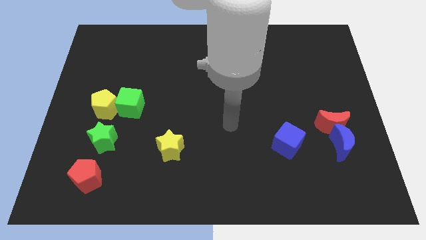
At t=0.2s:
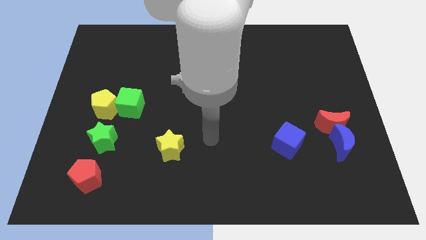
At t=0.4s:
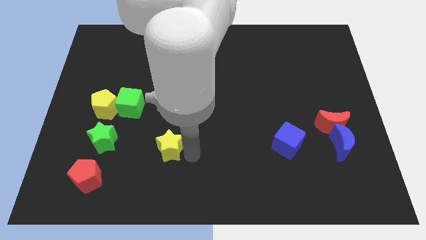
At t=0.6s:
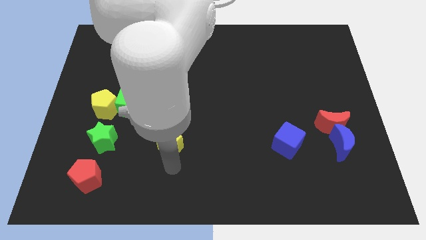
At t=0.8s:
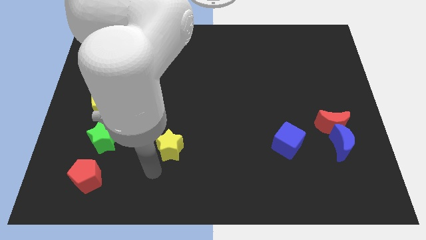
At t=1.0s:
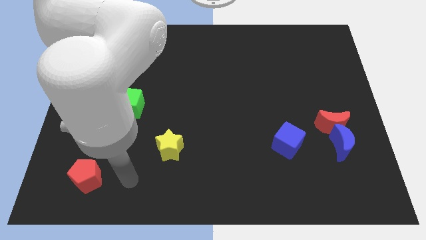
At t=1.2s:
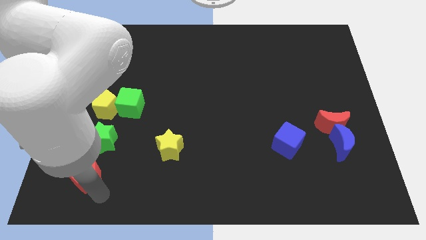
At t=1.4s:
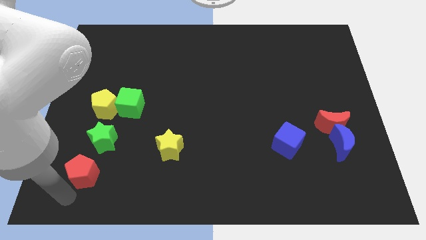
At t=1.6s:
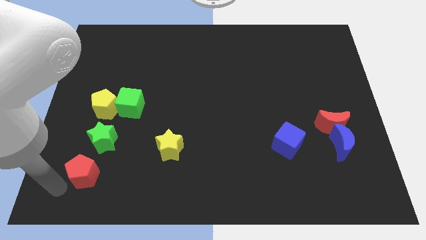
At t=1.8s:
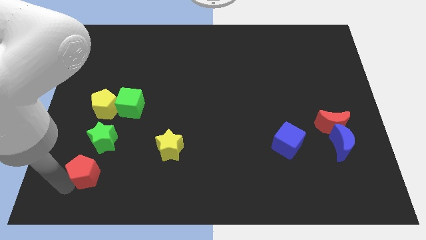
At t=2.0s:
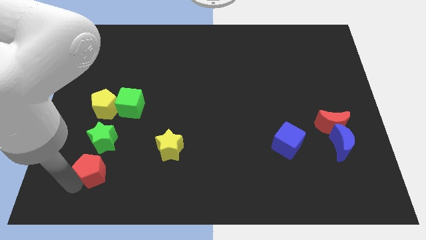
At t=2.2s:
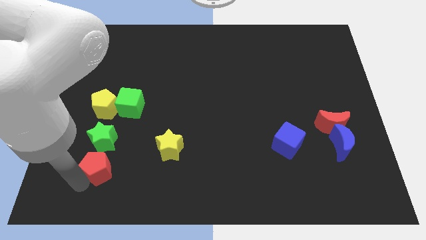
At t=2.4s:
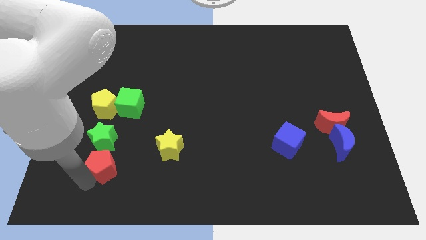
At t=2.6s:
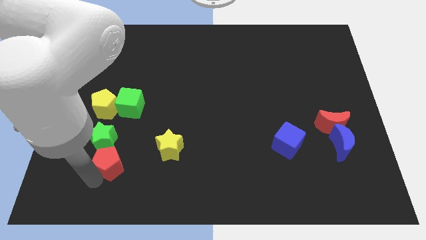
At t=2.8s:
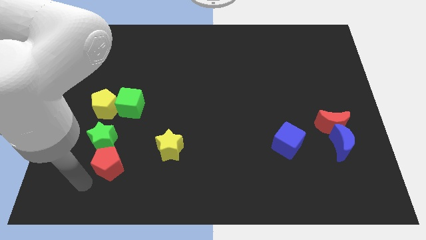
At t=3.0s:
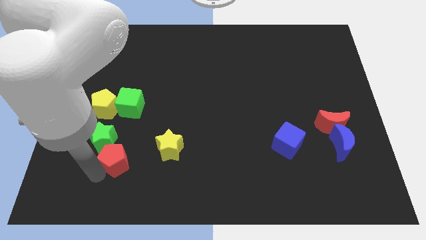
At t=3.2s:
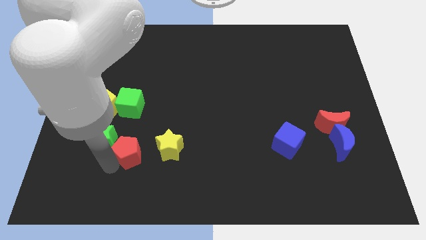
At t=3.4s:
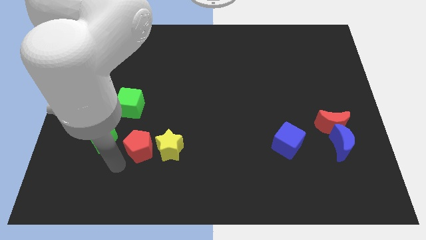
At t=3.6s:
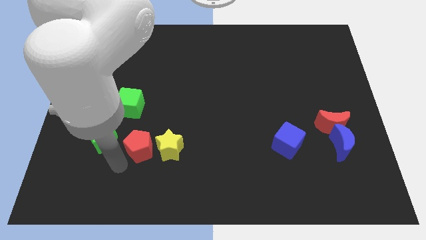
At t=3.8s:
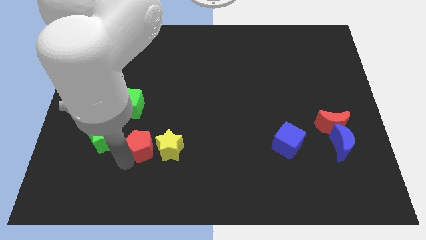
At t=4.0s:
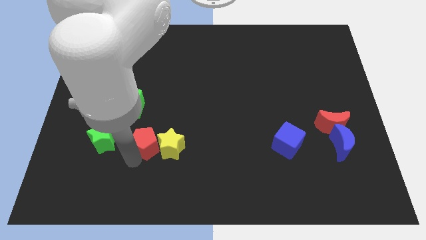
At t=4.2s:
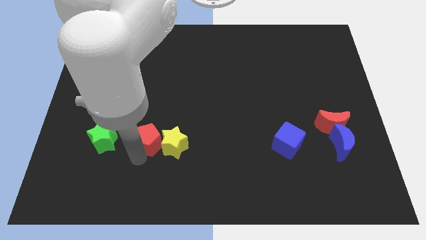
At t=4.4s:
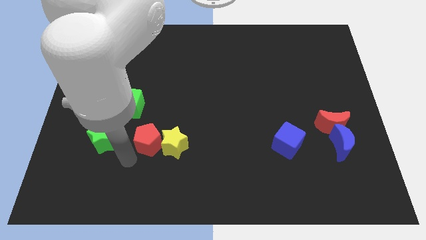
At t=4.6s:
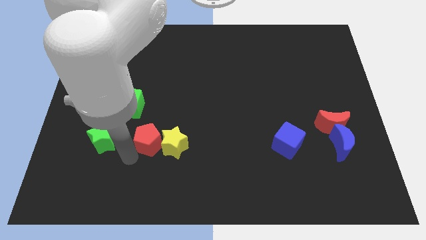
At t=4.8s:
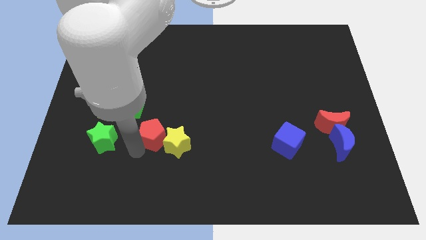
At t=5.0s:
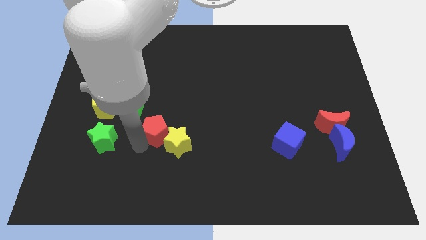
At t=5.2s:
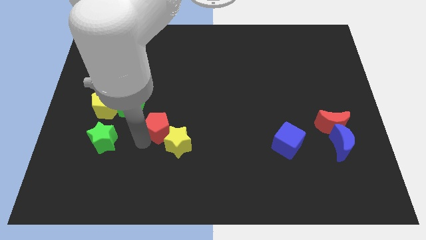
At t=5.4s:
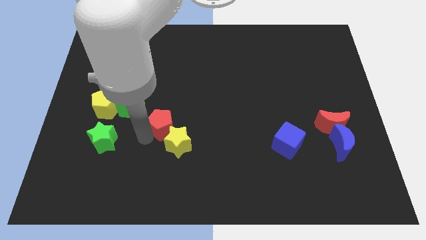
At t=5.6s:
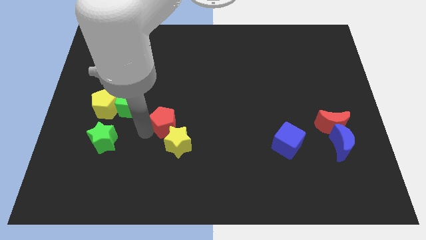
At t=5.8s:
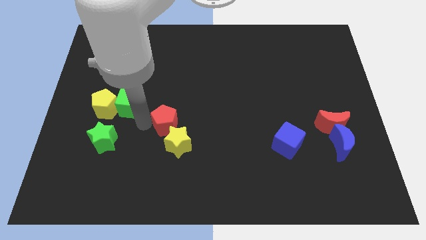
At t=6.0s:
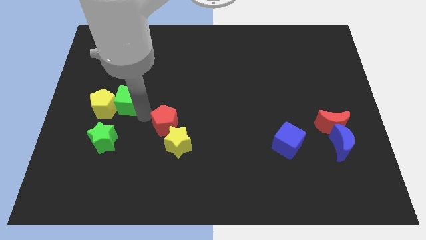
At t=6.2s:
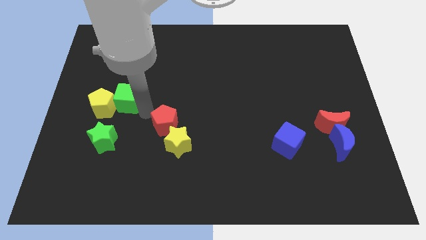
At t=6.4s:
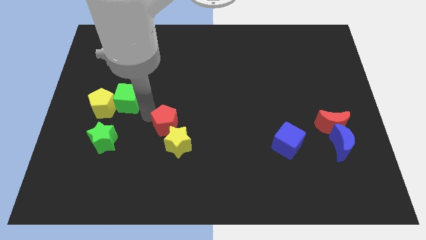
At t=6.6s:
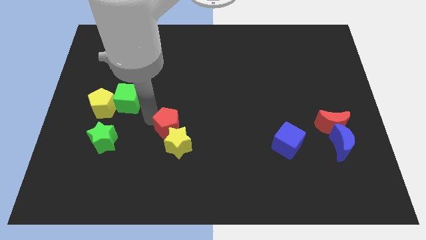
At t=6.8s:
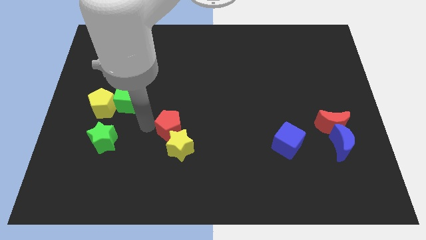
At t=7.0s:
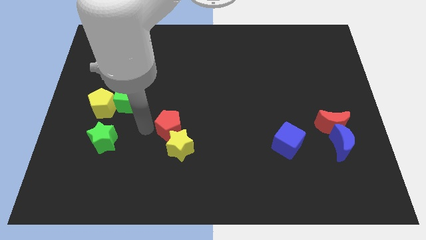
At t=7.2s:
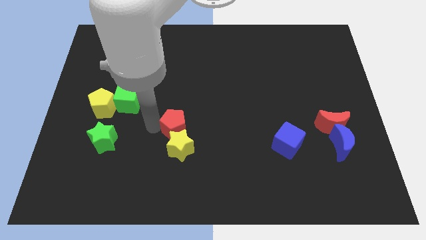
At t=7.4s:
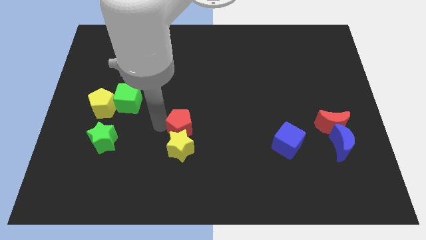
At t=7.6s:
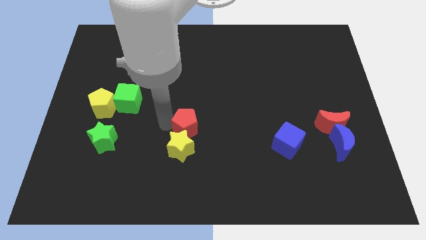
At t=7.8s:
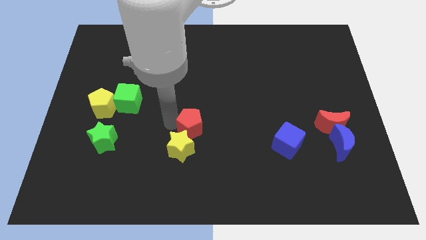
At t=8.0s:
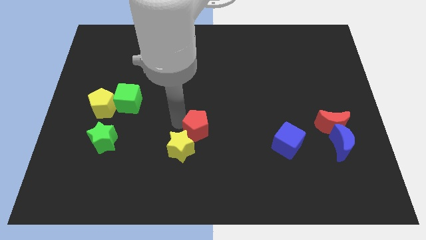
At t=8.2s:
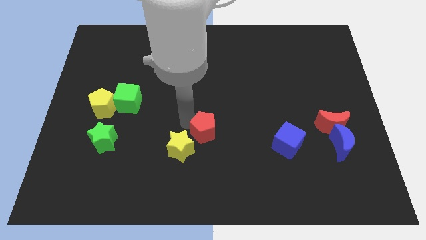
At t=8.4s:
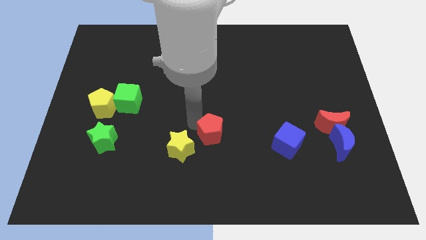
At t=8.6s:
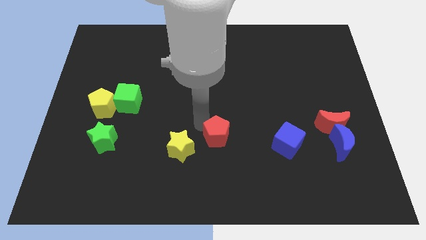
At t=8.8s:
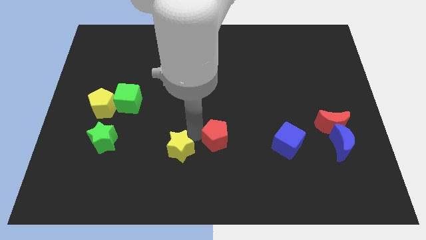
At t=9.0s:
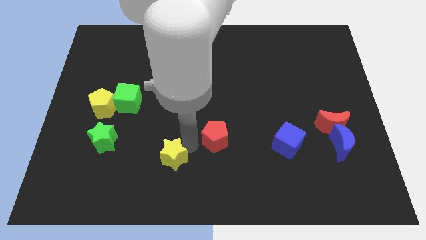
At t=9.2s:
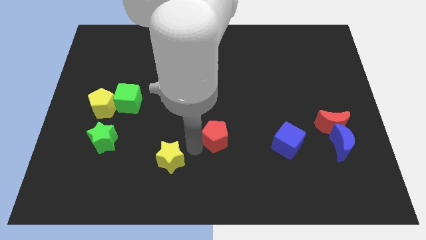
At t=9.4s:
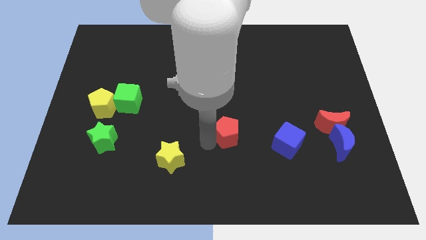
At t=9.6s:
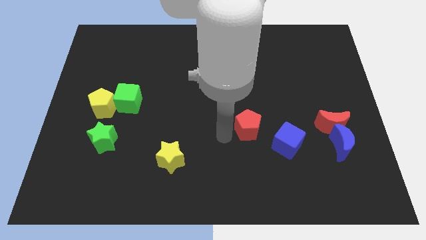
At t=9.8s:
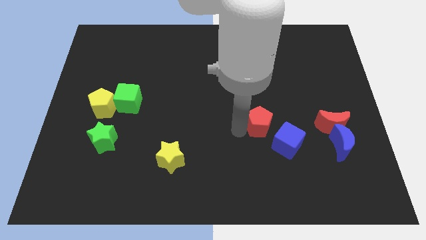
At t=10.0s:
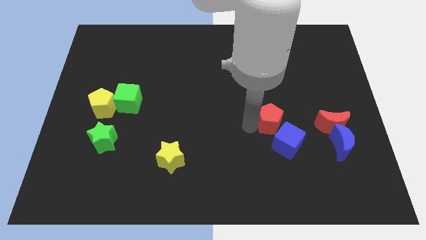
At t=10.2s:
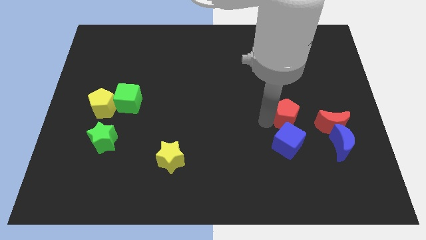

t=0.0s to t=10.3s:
push the red pentagon diagonally up and to the right of the blue cube

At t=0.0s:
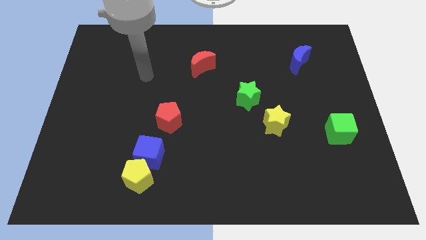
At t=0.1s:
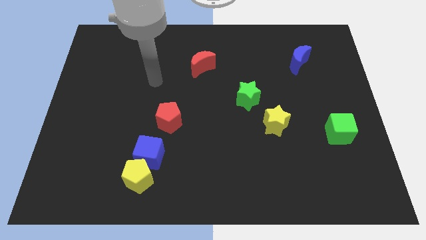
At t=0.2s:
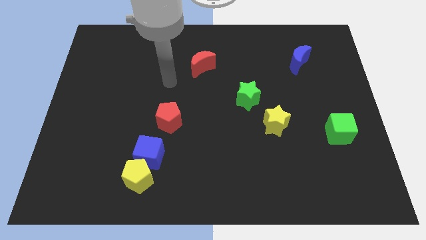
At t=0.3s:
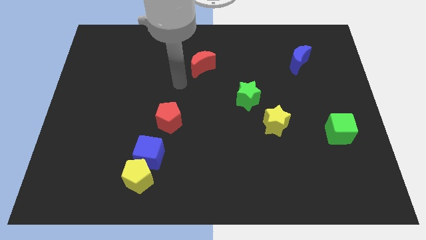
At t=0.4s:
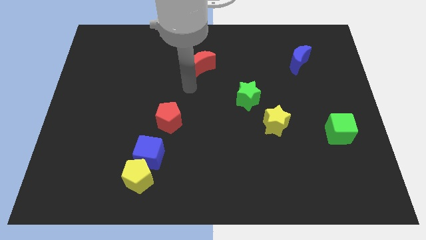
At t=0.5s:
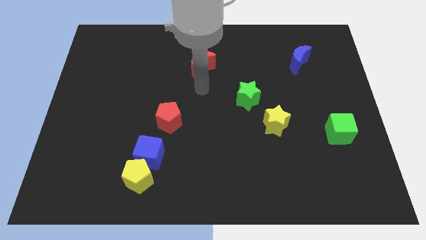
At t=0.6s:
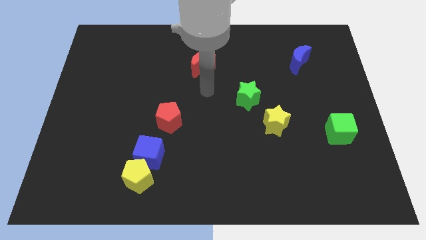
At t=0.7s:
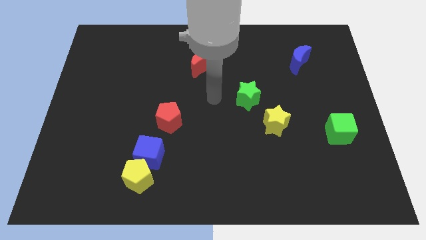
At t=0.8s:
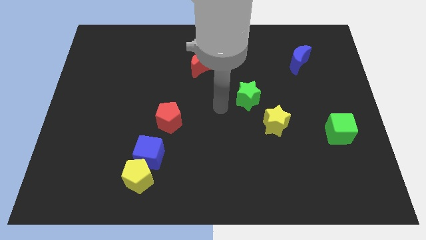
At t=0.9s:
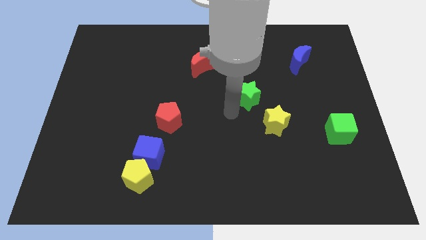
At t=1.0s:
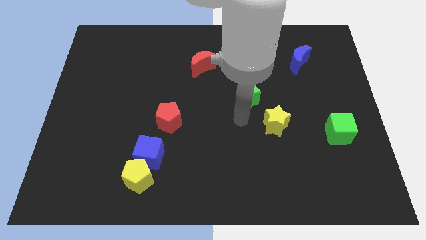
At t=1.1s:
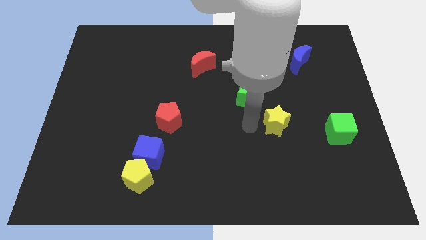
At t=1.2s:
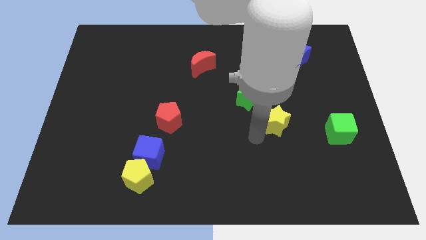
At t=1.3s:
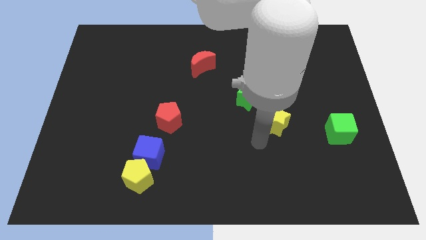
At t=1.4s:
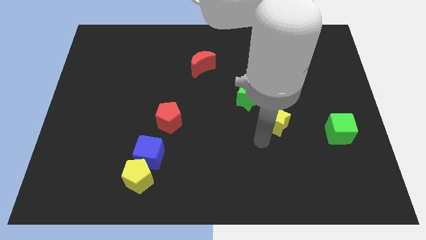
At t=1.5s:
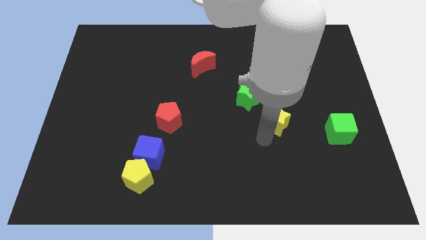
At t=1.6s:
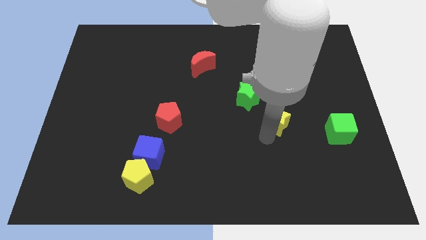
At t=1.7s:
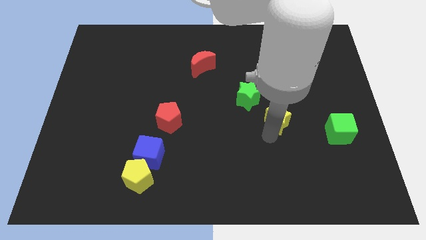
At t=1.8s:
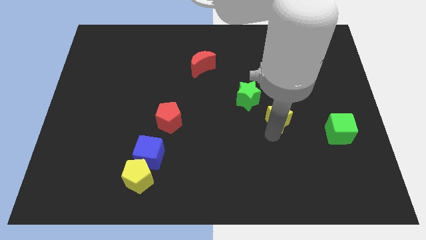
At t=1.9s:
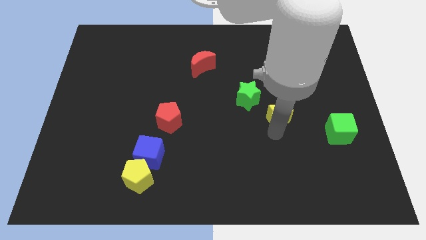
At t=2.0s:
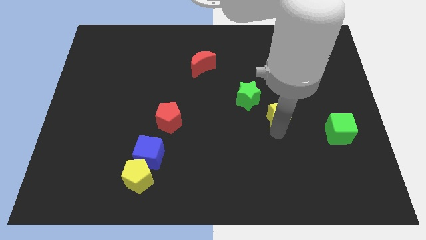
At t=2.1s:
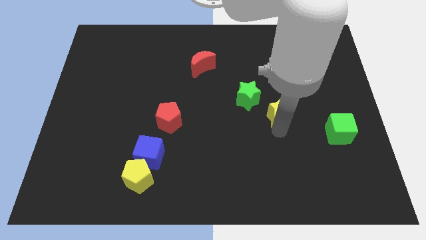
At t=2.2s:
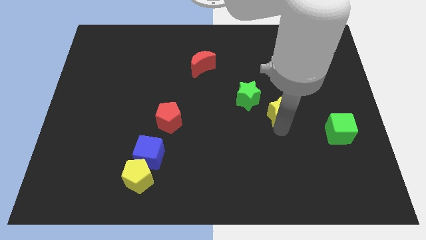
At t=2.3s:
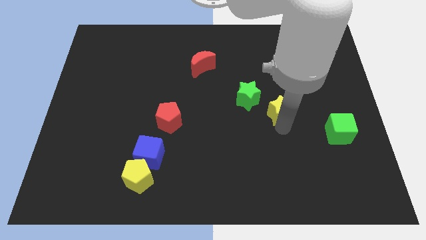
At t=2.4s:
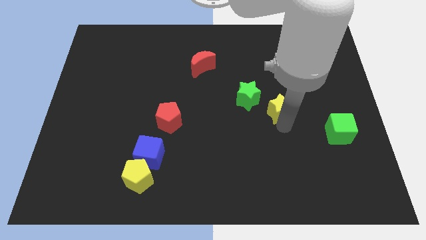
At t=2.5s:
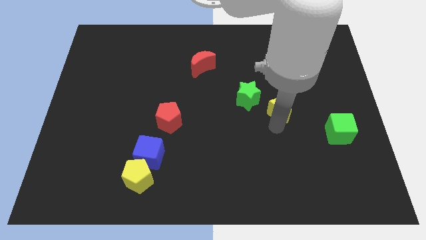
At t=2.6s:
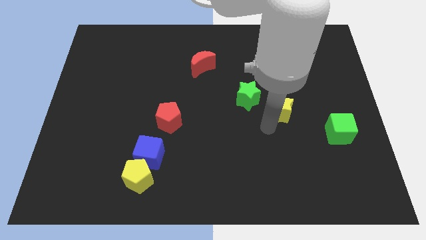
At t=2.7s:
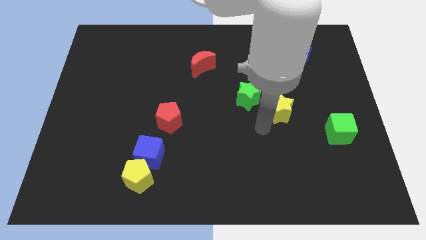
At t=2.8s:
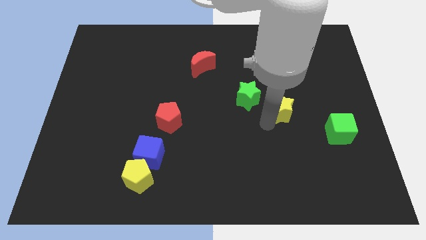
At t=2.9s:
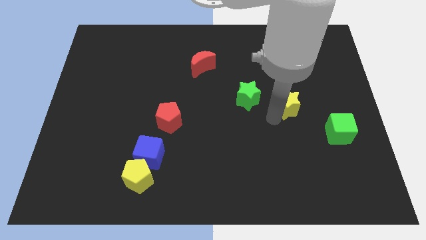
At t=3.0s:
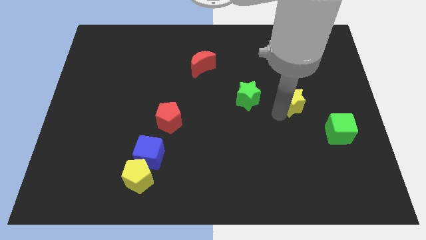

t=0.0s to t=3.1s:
push the yellow star below the blue moon

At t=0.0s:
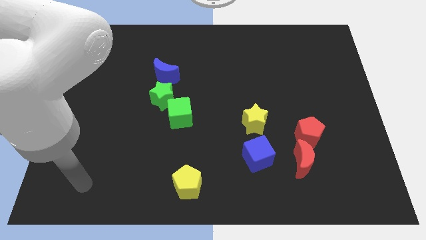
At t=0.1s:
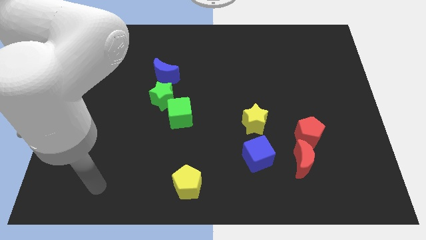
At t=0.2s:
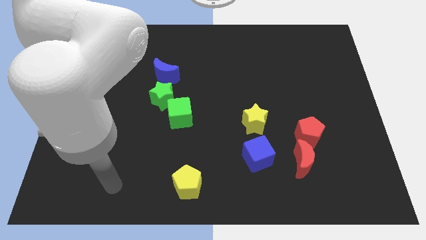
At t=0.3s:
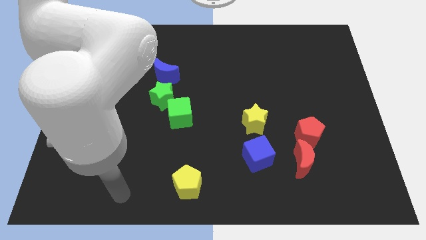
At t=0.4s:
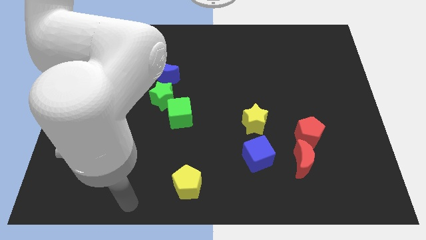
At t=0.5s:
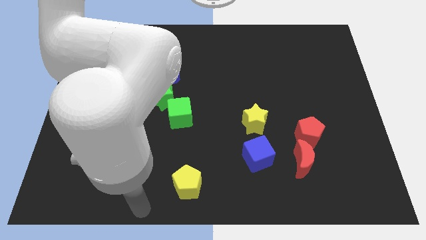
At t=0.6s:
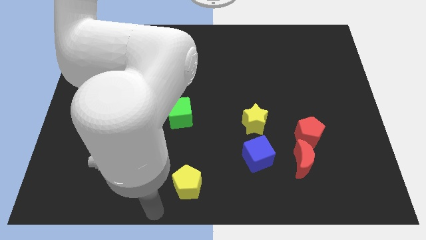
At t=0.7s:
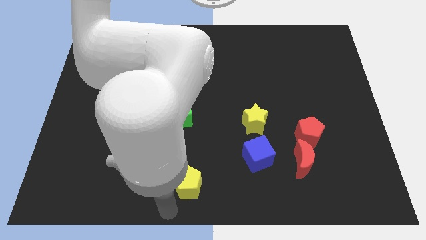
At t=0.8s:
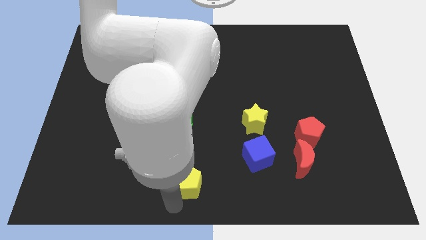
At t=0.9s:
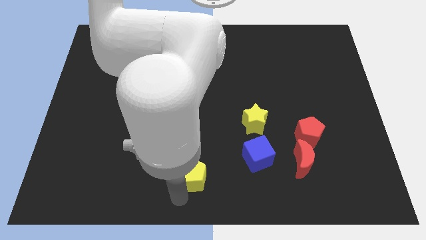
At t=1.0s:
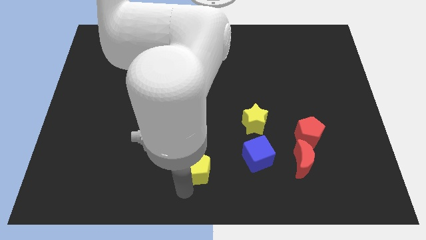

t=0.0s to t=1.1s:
move the yellow pentagon to the left side of the blue cube
